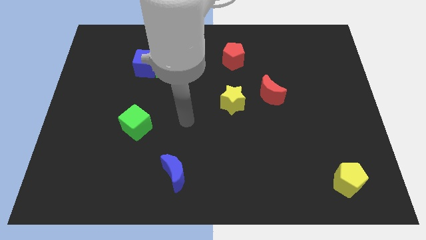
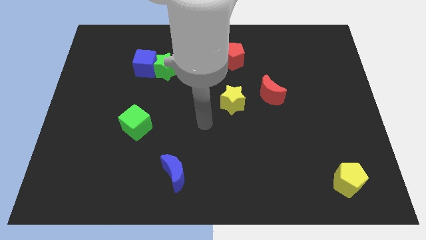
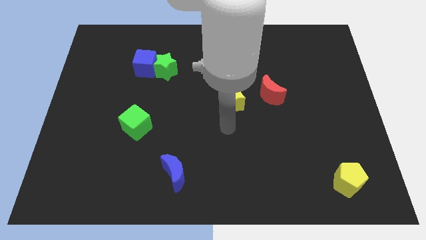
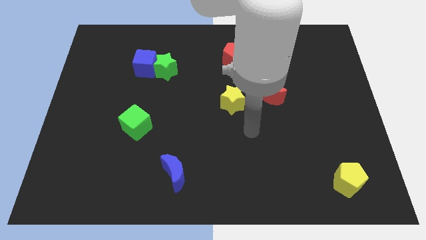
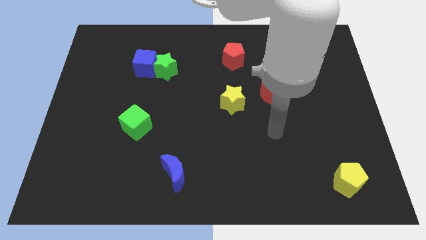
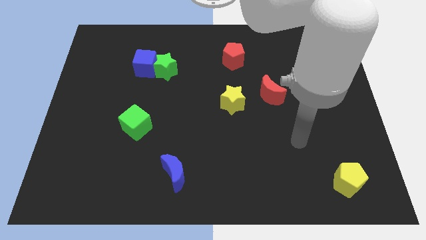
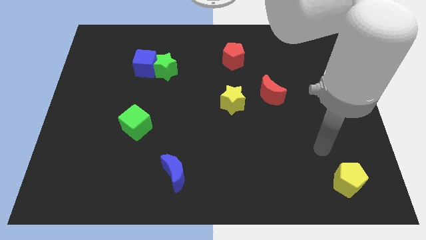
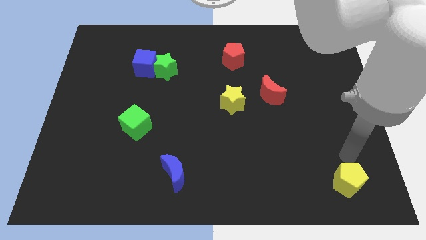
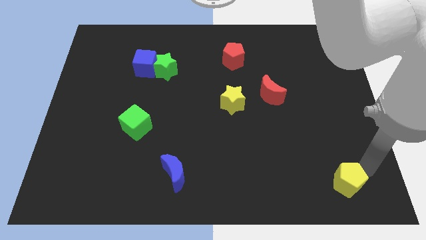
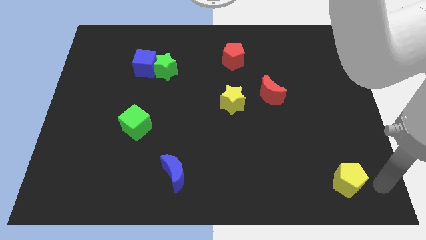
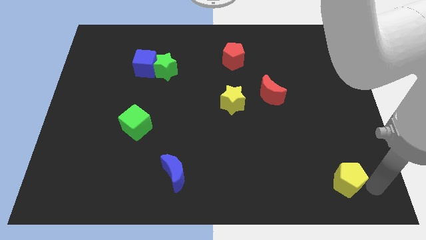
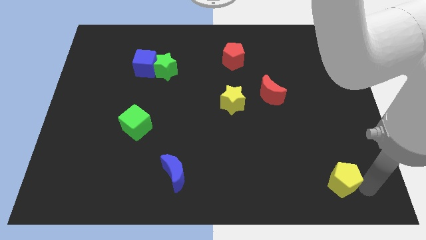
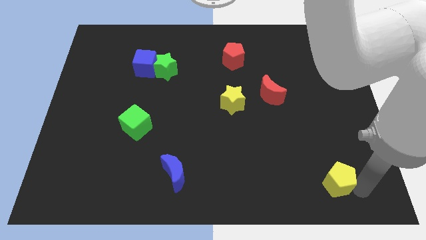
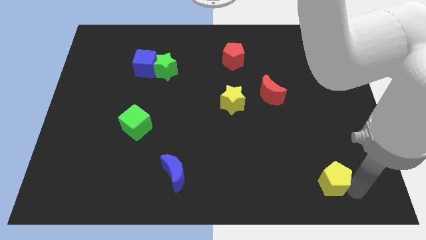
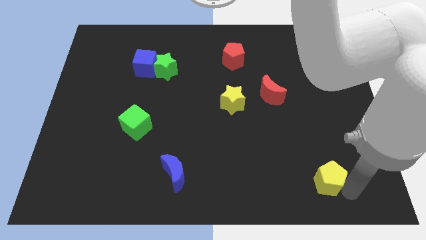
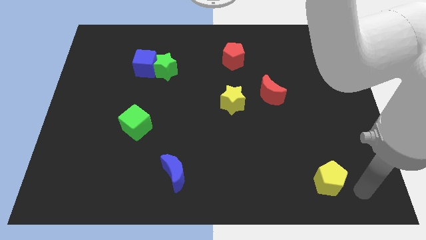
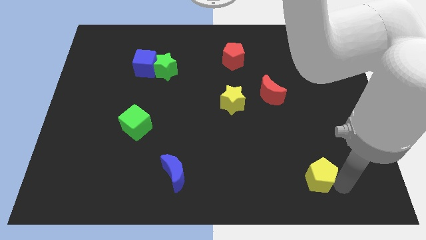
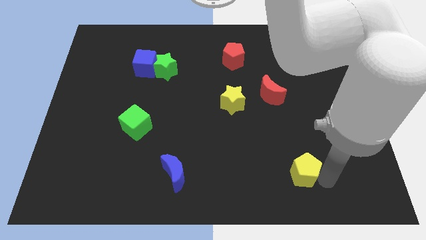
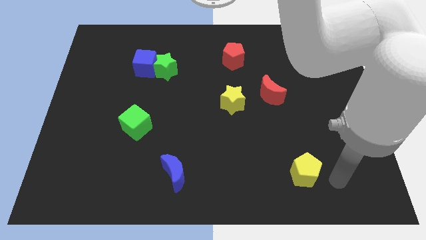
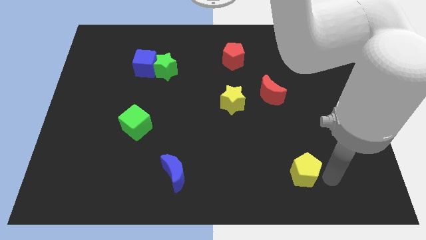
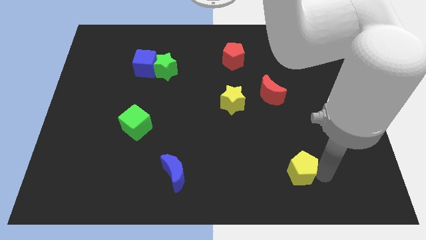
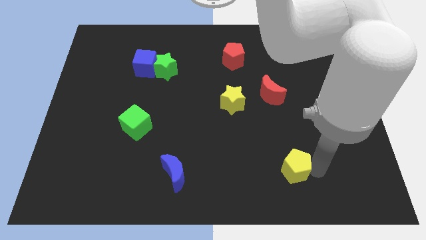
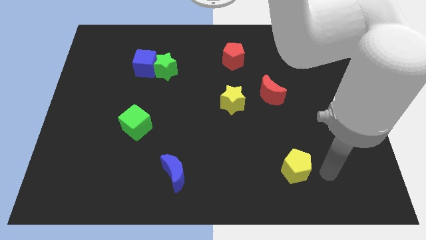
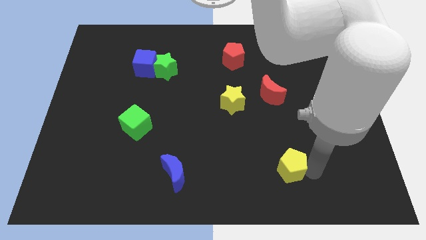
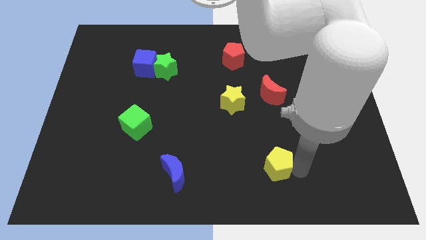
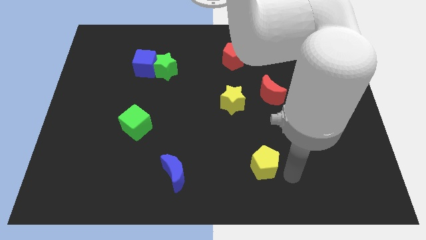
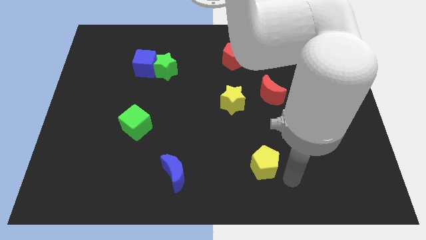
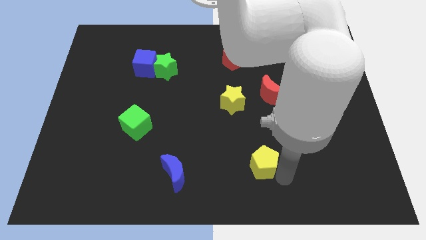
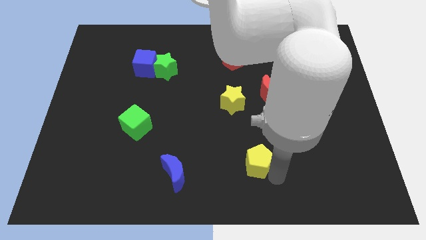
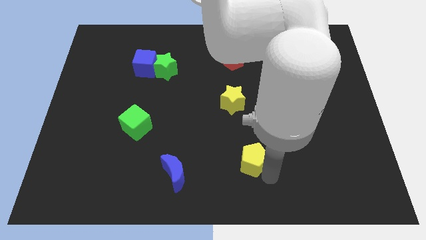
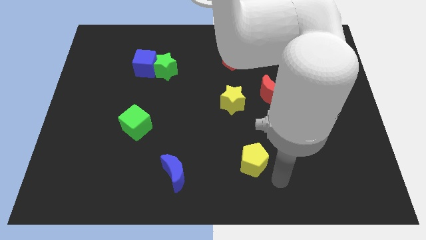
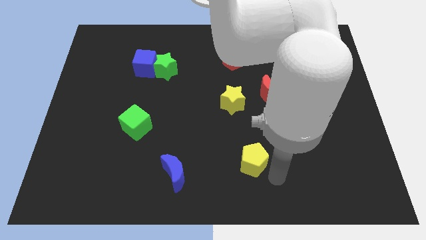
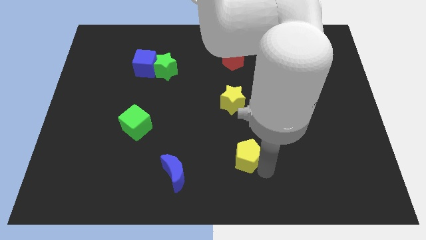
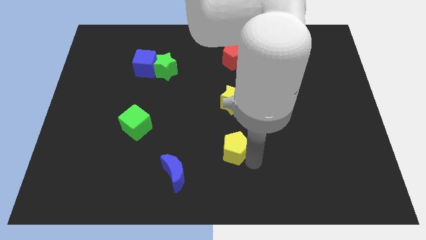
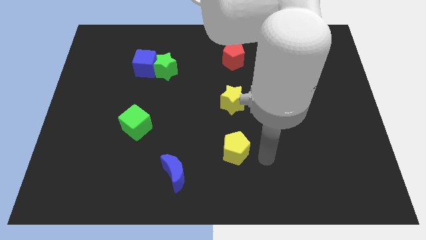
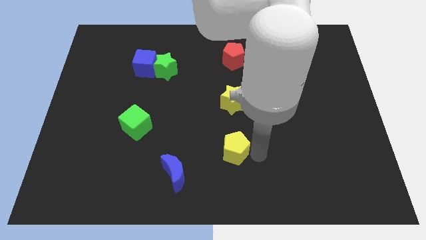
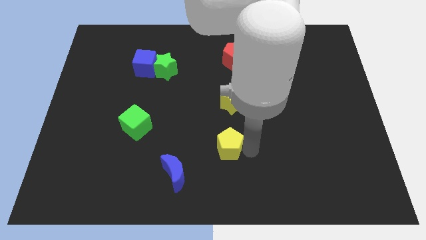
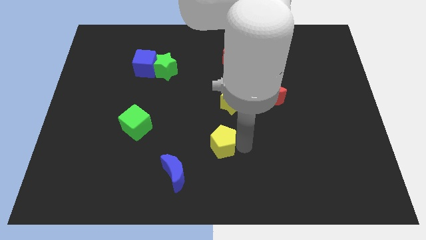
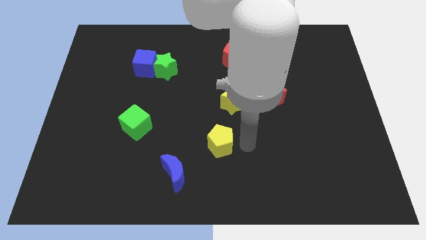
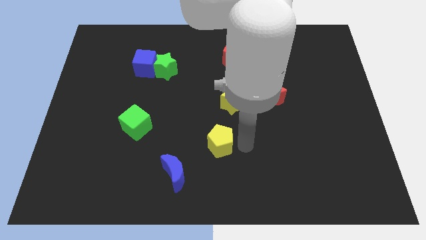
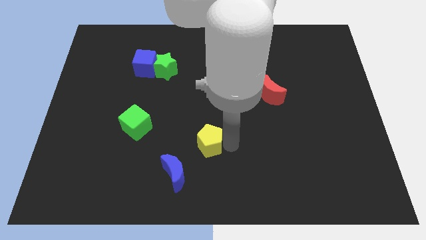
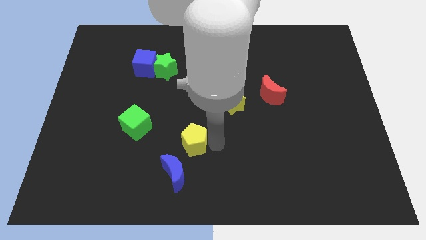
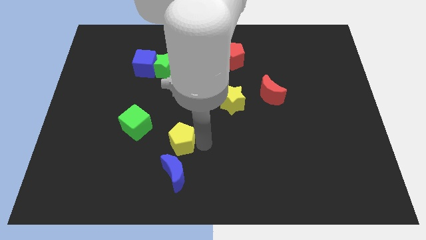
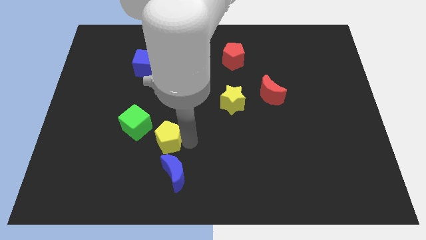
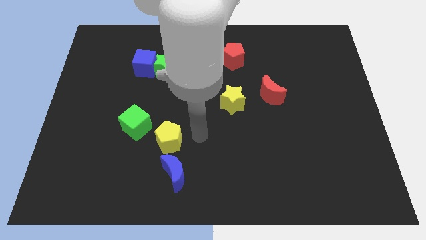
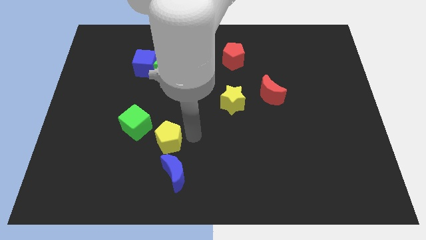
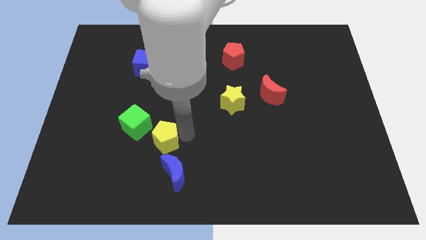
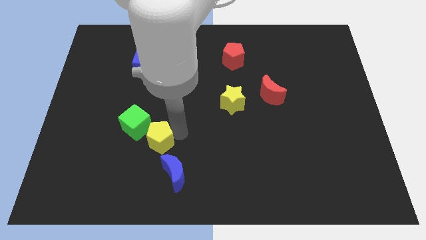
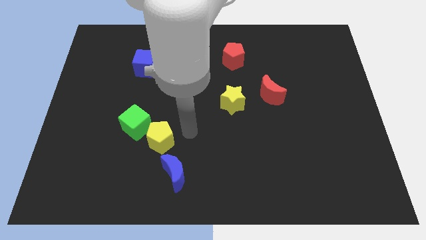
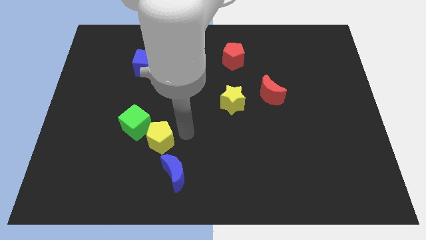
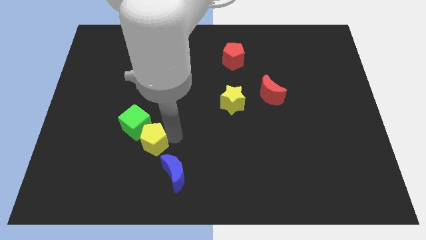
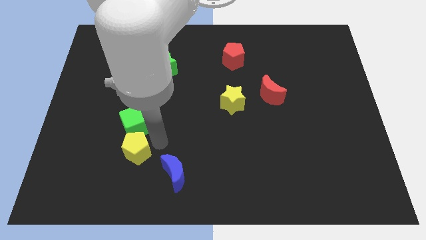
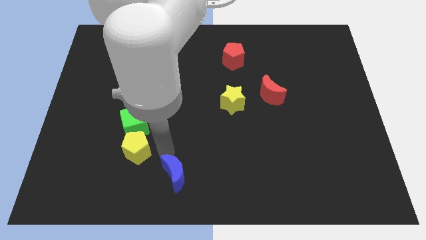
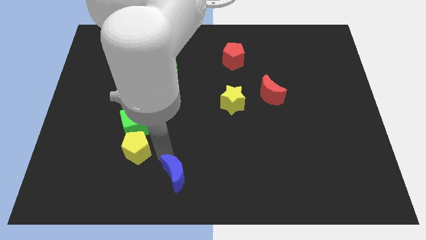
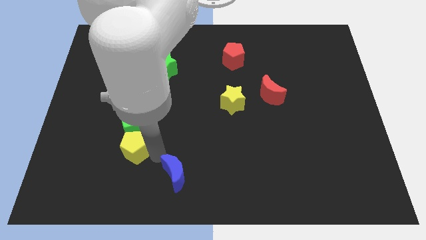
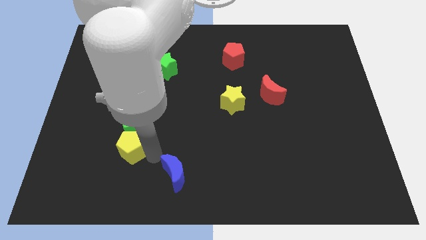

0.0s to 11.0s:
push the yellow pentagon to the bottom left of the green cube
